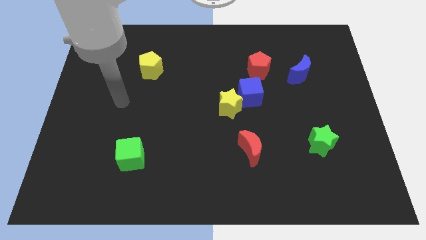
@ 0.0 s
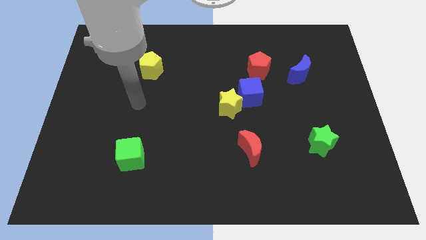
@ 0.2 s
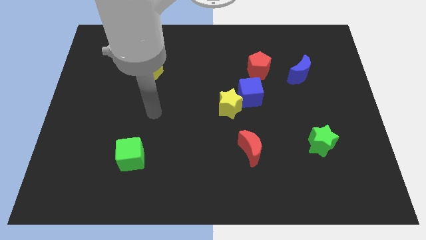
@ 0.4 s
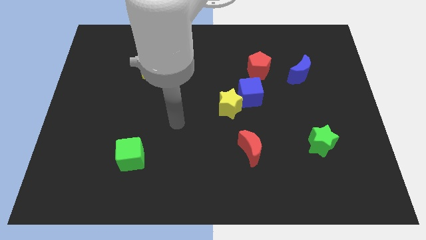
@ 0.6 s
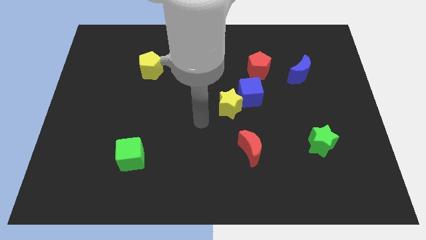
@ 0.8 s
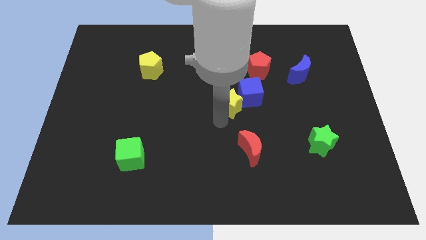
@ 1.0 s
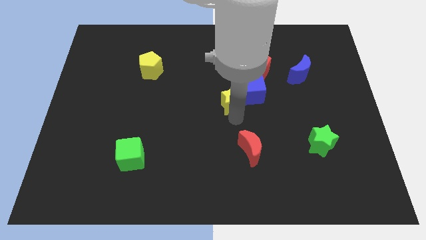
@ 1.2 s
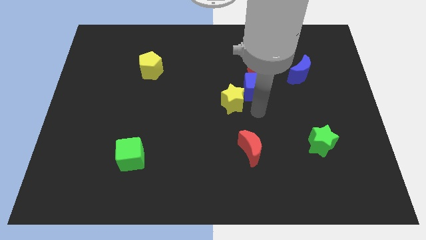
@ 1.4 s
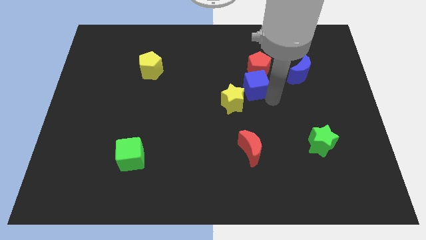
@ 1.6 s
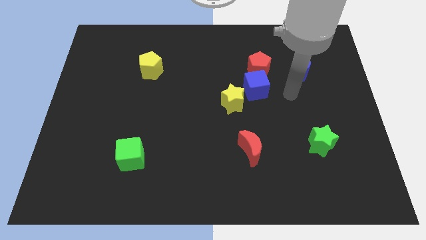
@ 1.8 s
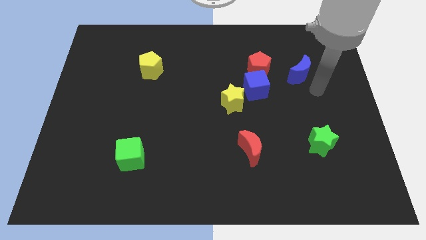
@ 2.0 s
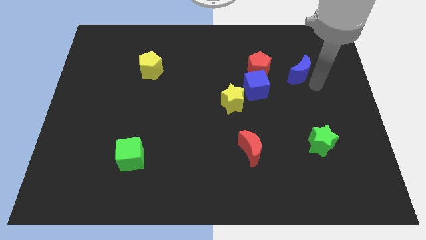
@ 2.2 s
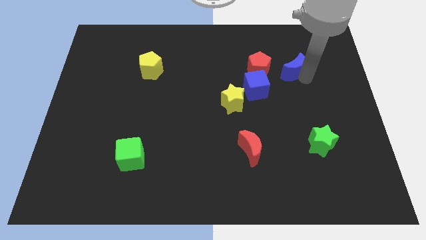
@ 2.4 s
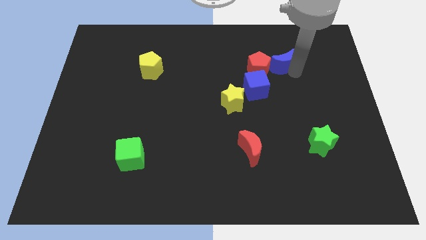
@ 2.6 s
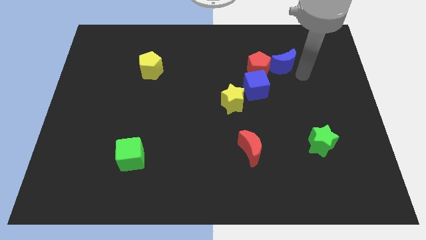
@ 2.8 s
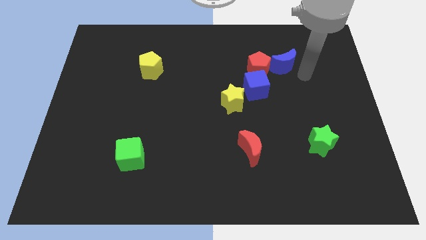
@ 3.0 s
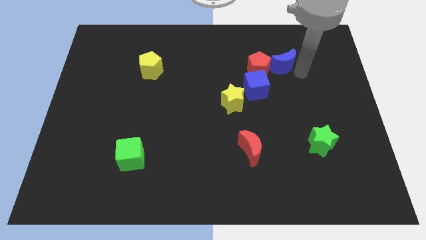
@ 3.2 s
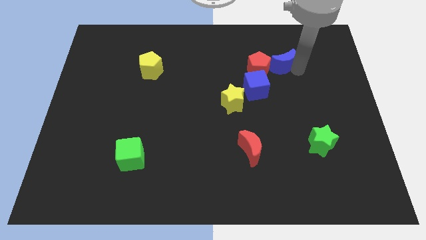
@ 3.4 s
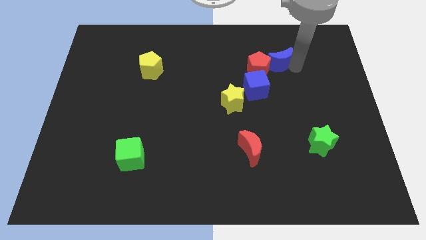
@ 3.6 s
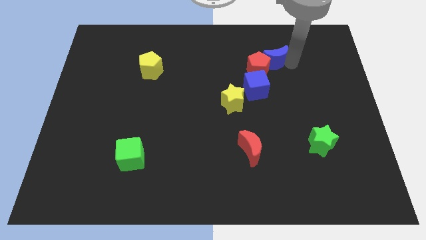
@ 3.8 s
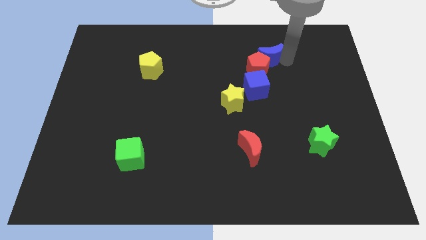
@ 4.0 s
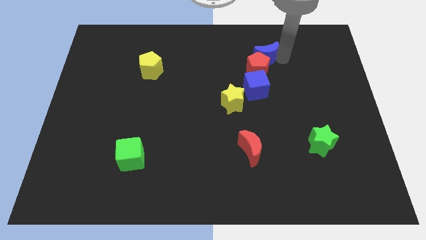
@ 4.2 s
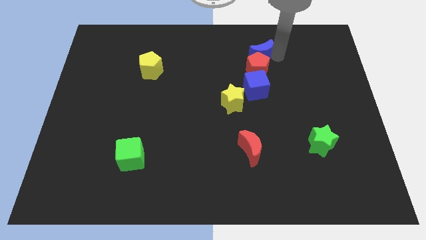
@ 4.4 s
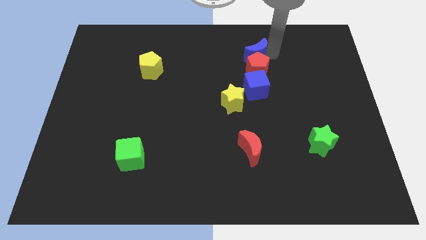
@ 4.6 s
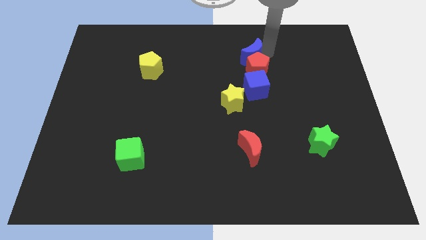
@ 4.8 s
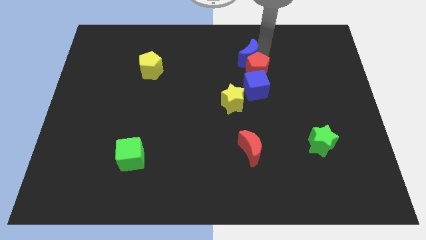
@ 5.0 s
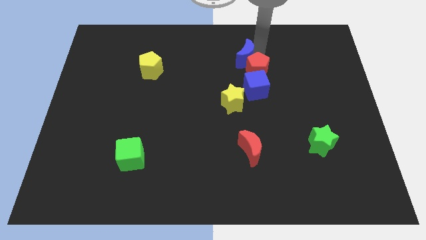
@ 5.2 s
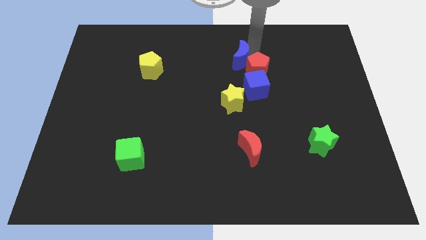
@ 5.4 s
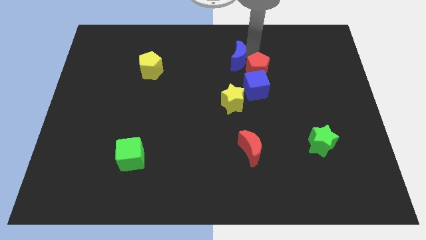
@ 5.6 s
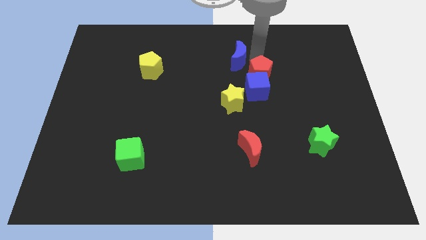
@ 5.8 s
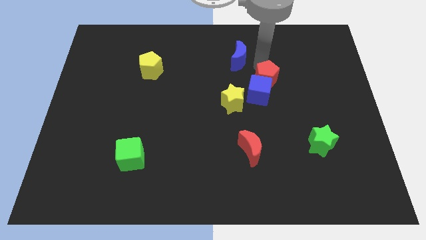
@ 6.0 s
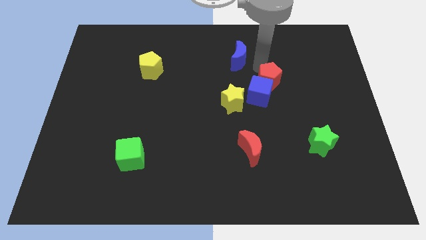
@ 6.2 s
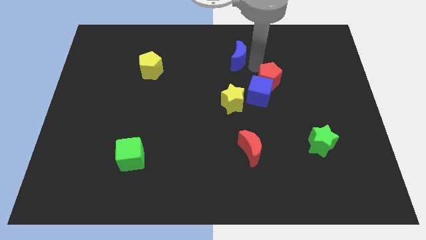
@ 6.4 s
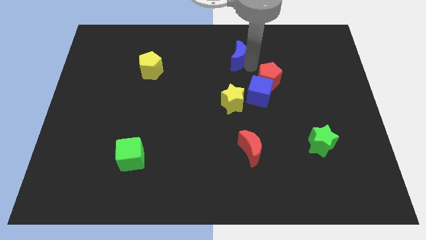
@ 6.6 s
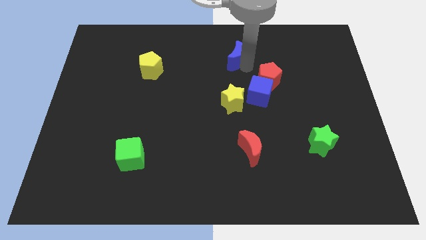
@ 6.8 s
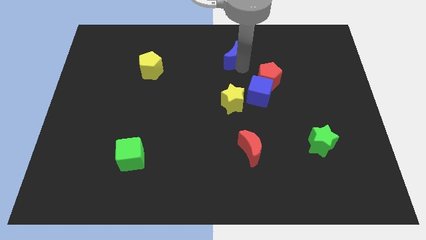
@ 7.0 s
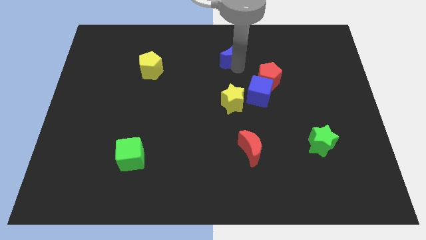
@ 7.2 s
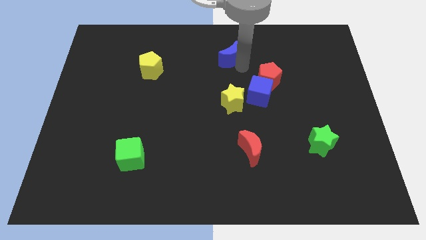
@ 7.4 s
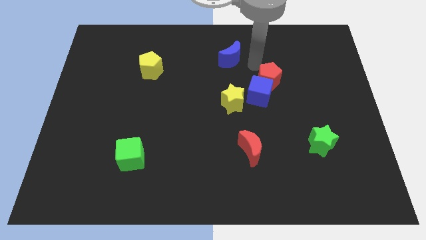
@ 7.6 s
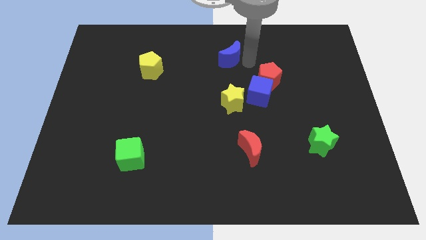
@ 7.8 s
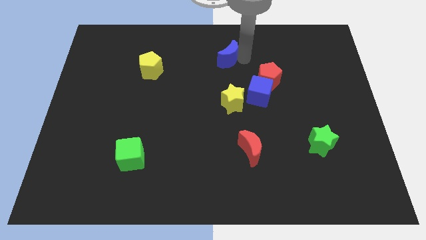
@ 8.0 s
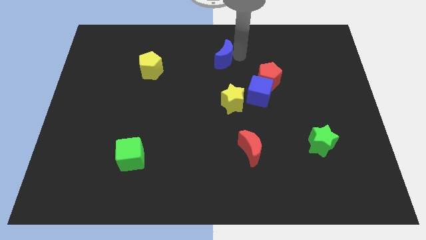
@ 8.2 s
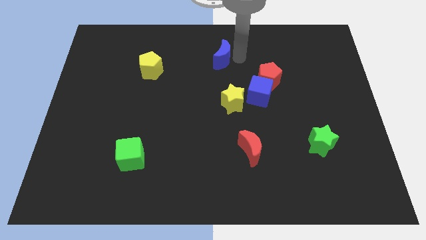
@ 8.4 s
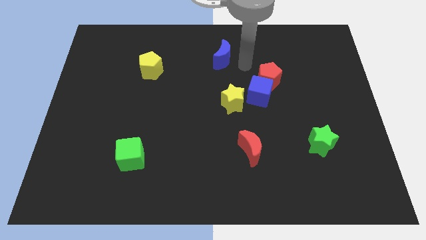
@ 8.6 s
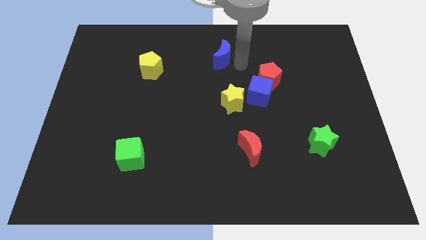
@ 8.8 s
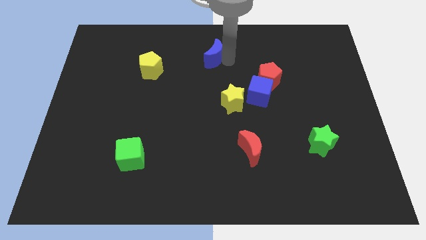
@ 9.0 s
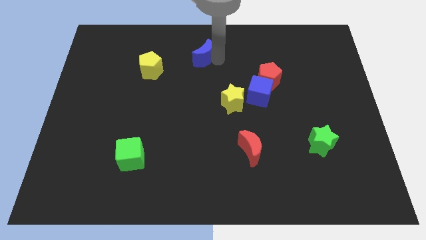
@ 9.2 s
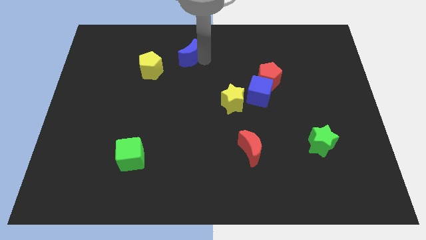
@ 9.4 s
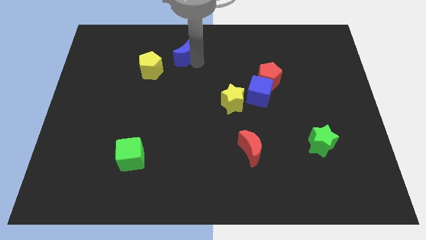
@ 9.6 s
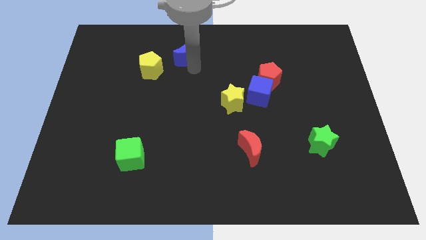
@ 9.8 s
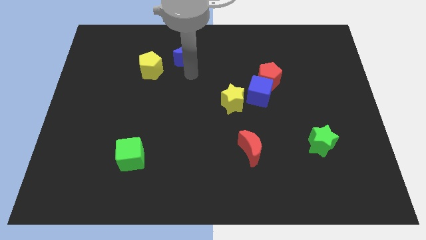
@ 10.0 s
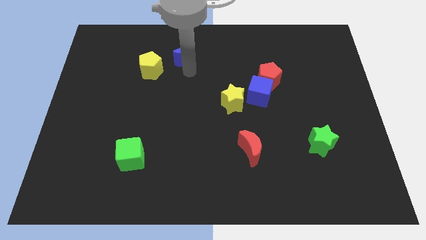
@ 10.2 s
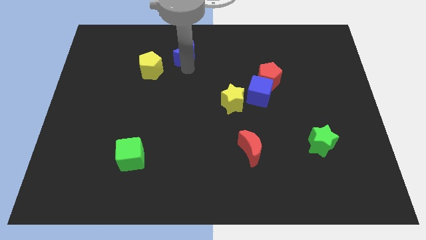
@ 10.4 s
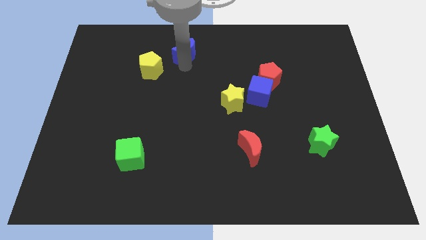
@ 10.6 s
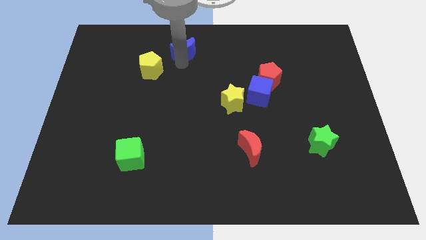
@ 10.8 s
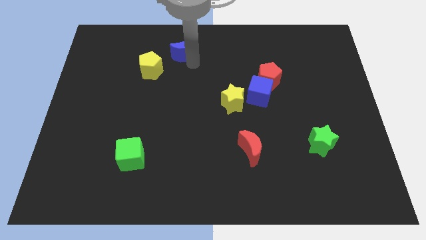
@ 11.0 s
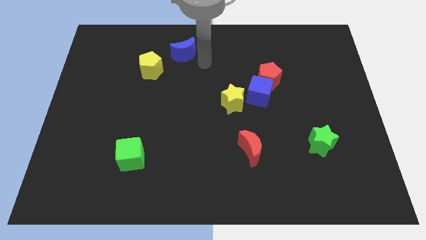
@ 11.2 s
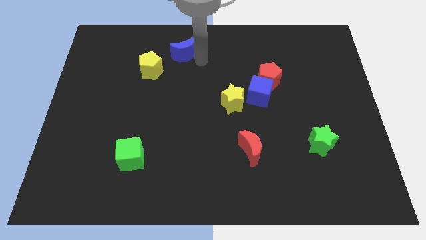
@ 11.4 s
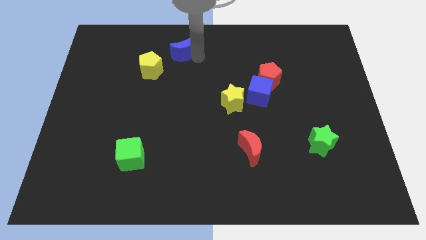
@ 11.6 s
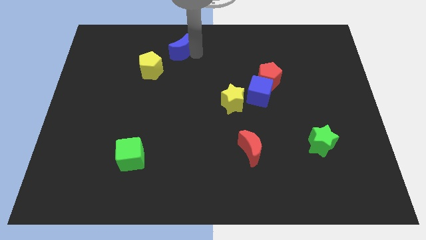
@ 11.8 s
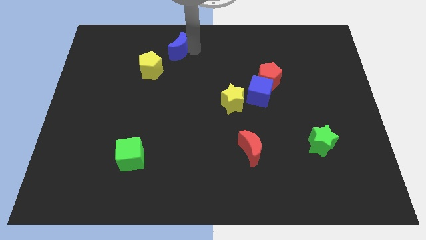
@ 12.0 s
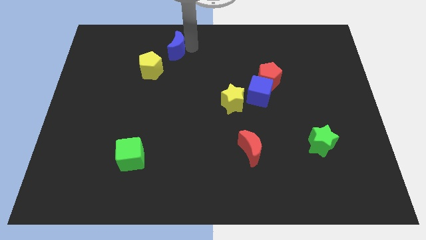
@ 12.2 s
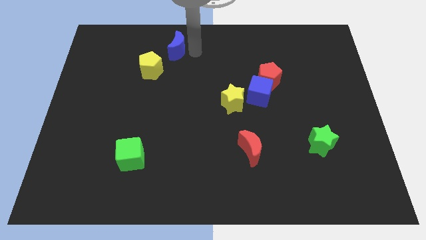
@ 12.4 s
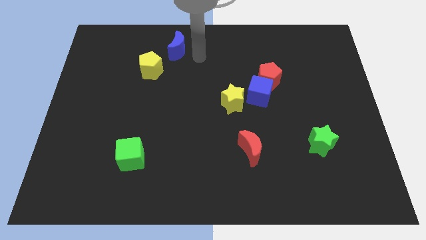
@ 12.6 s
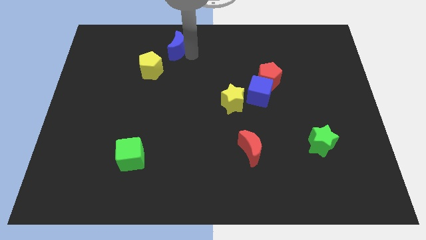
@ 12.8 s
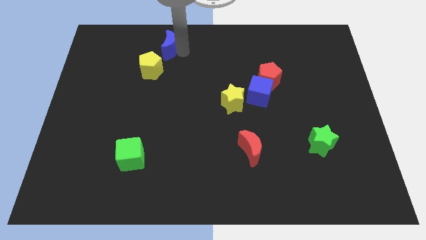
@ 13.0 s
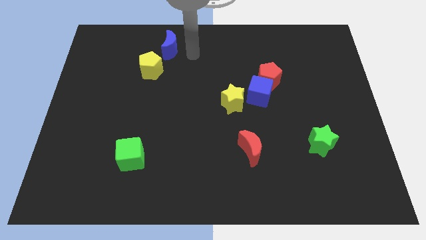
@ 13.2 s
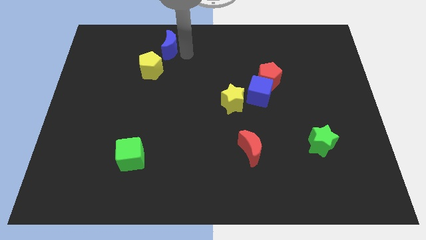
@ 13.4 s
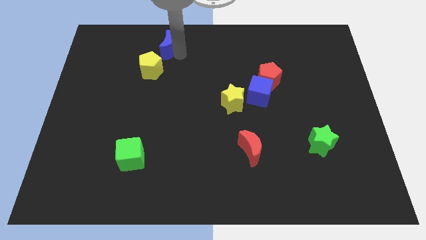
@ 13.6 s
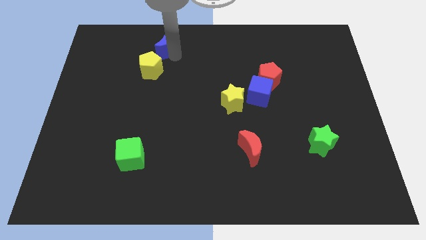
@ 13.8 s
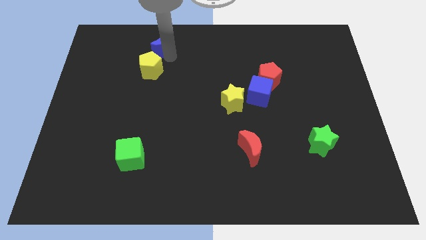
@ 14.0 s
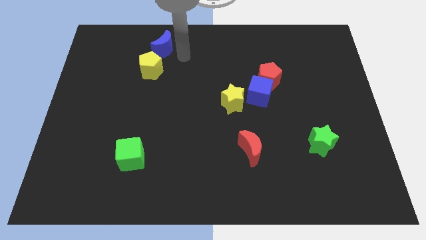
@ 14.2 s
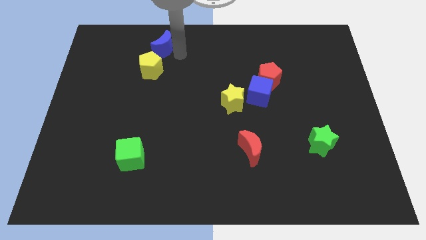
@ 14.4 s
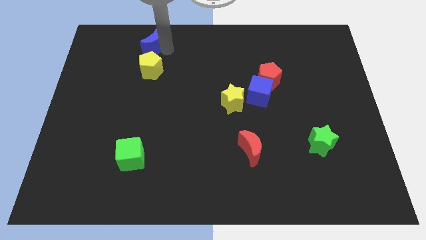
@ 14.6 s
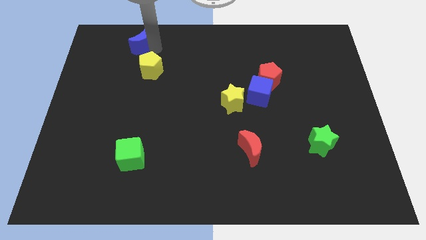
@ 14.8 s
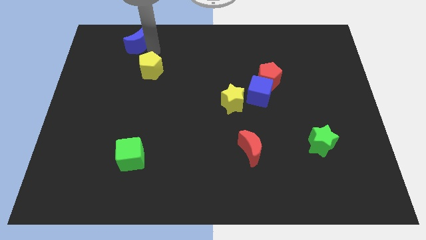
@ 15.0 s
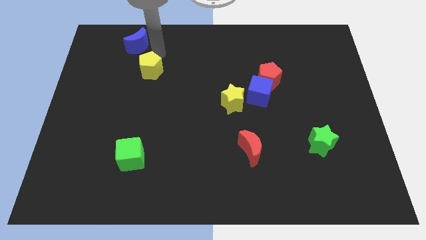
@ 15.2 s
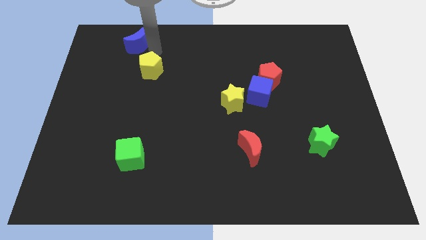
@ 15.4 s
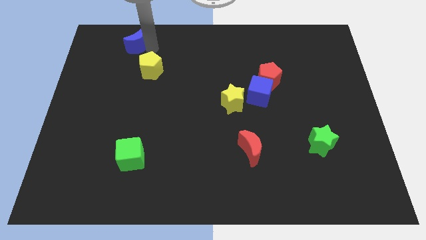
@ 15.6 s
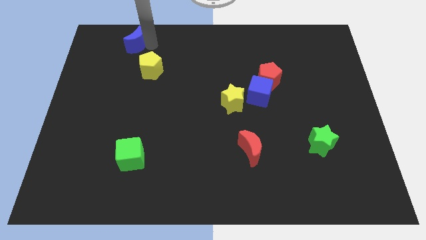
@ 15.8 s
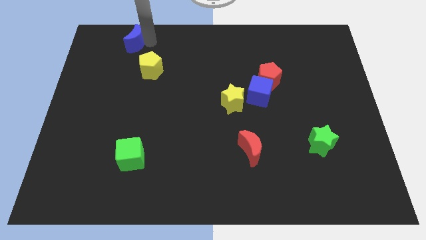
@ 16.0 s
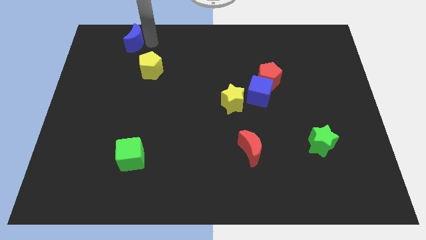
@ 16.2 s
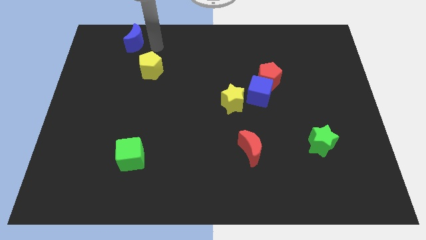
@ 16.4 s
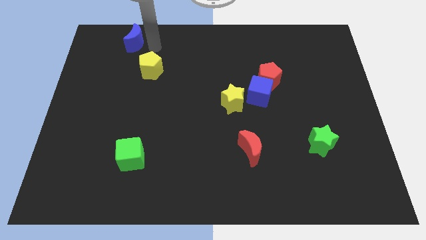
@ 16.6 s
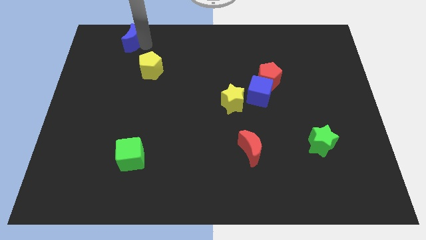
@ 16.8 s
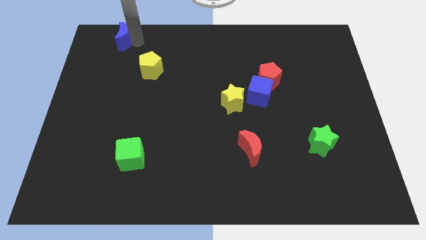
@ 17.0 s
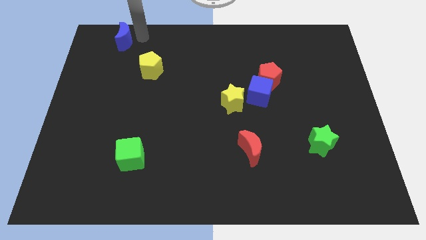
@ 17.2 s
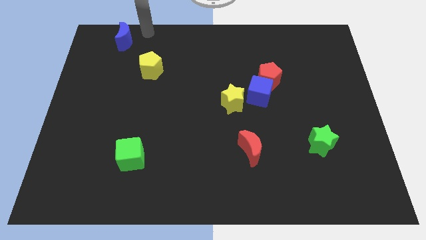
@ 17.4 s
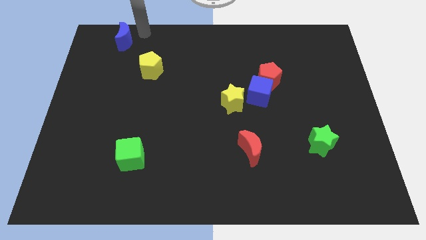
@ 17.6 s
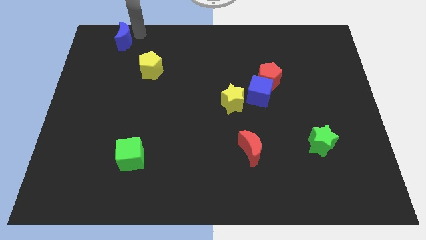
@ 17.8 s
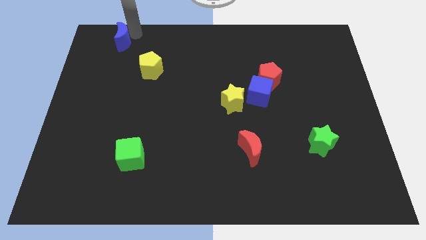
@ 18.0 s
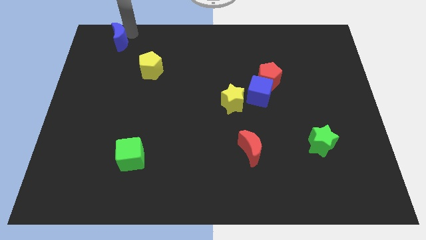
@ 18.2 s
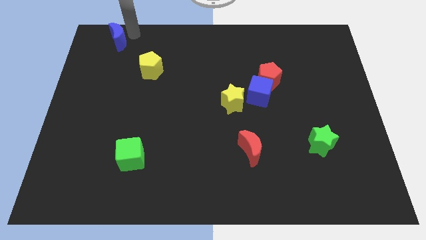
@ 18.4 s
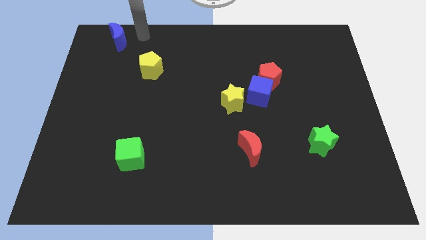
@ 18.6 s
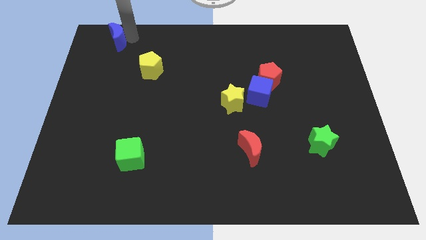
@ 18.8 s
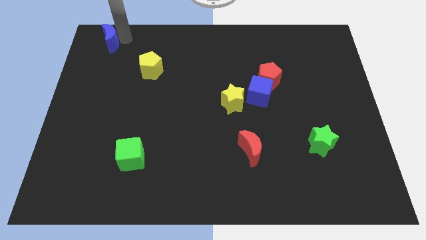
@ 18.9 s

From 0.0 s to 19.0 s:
slide the blue moon to the upper left corner
